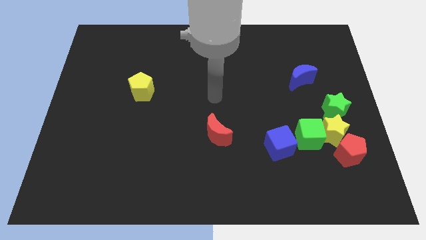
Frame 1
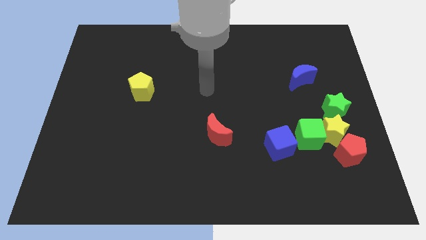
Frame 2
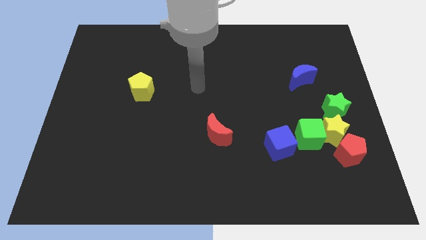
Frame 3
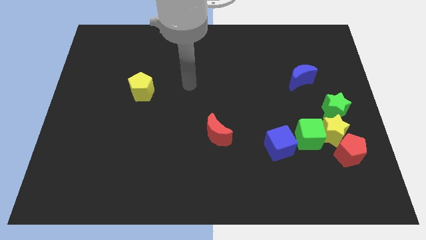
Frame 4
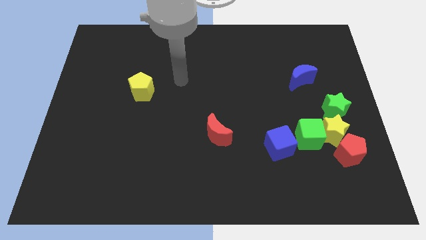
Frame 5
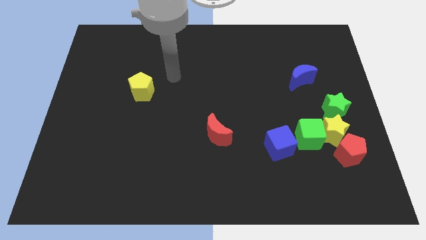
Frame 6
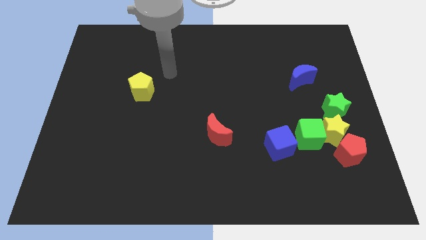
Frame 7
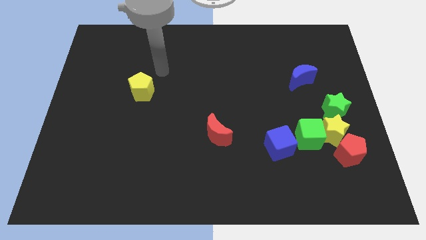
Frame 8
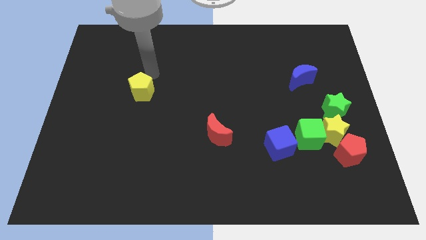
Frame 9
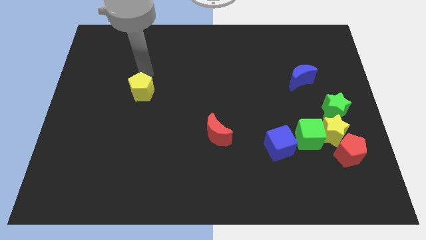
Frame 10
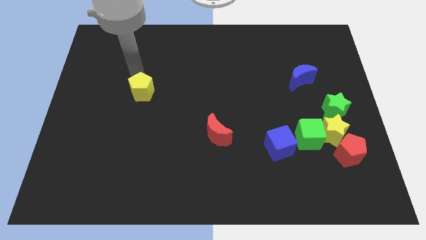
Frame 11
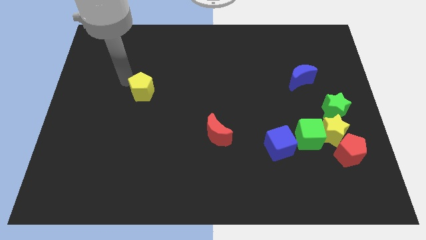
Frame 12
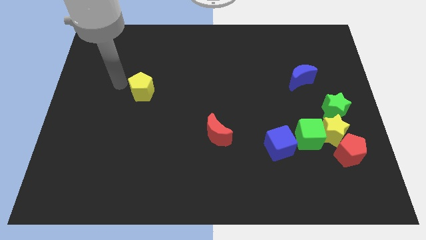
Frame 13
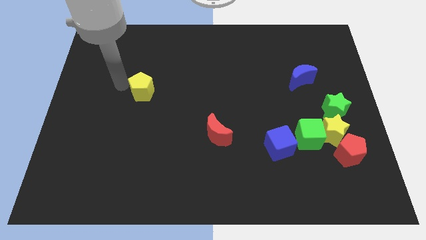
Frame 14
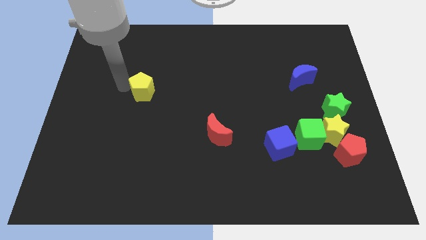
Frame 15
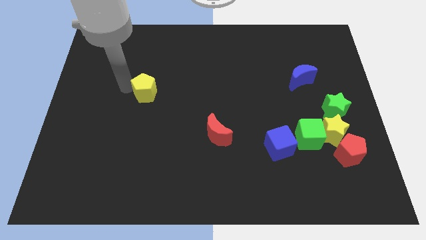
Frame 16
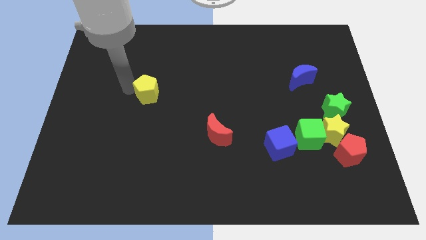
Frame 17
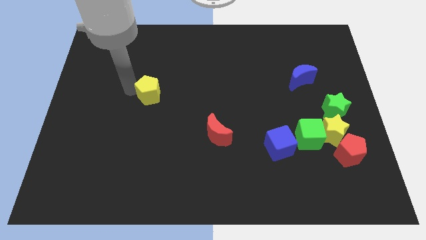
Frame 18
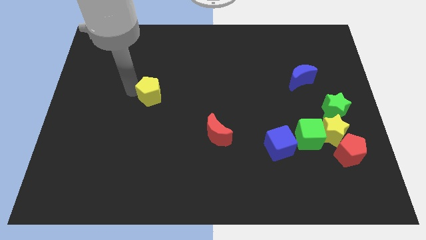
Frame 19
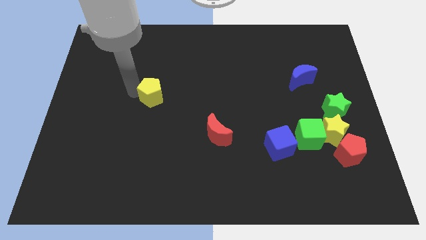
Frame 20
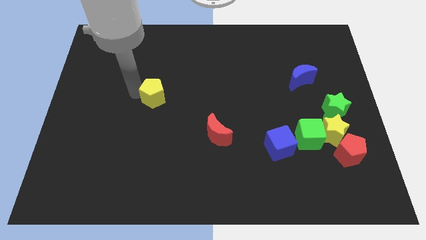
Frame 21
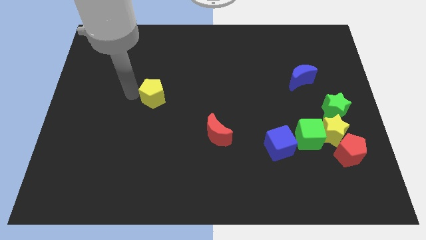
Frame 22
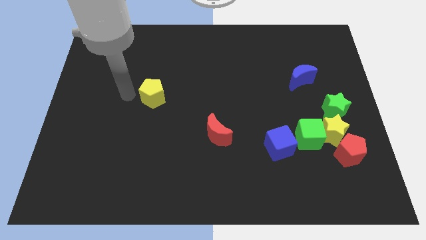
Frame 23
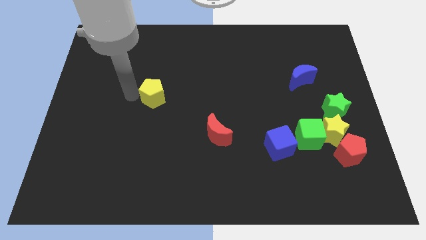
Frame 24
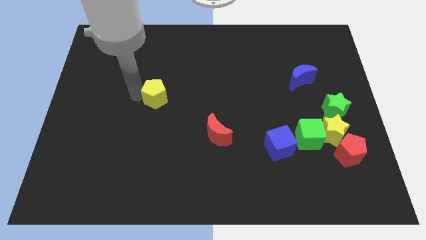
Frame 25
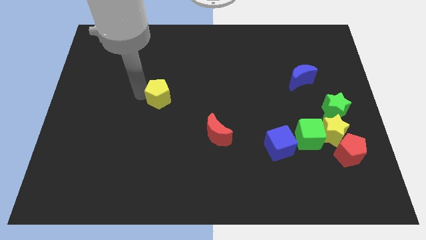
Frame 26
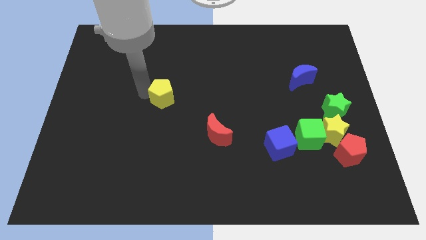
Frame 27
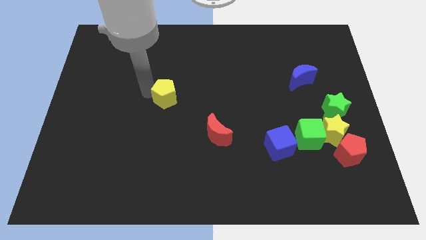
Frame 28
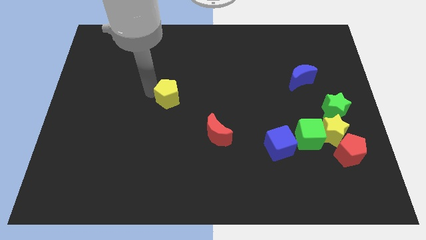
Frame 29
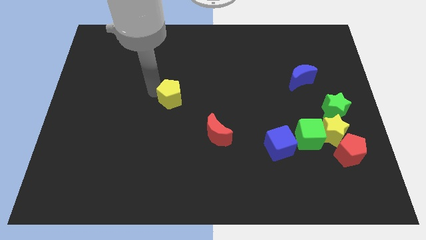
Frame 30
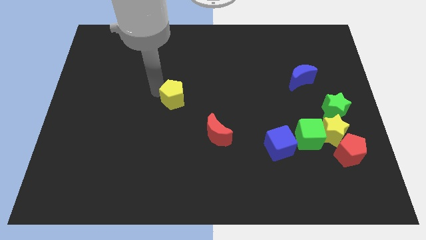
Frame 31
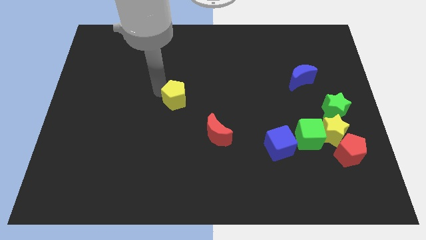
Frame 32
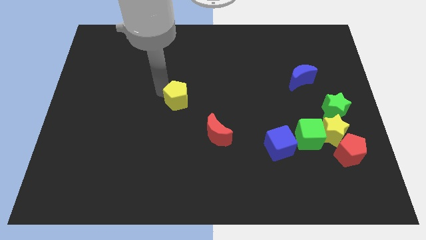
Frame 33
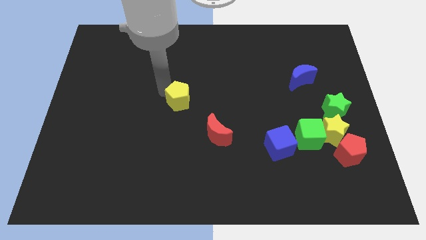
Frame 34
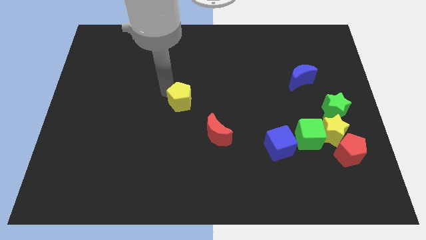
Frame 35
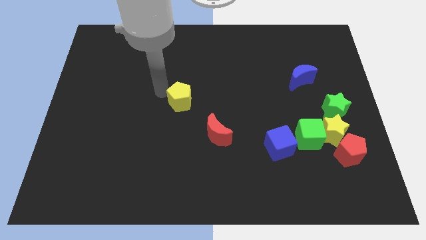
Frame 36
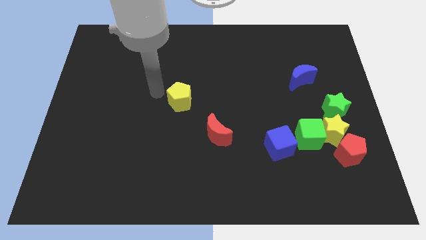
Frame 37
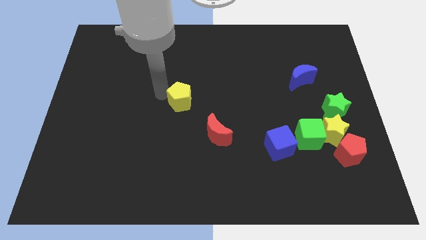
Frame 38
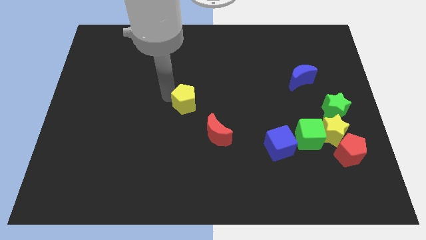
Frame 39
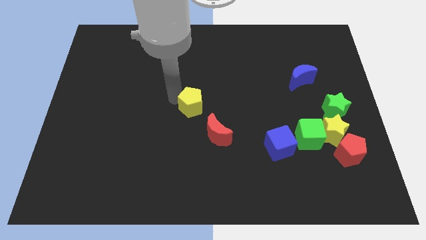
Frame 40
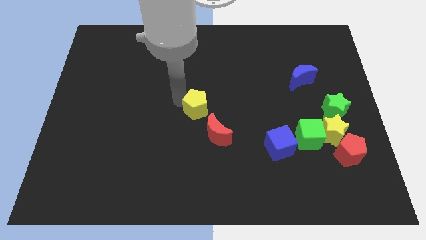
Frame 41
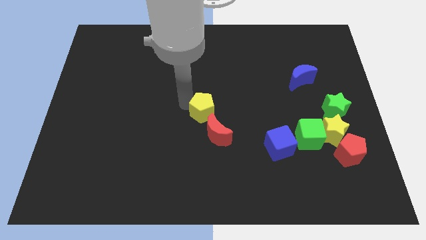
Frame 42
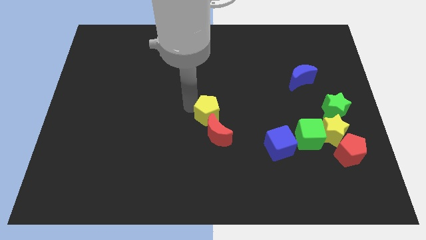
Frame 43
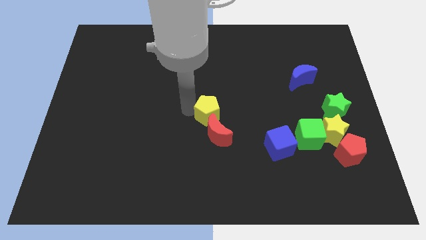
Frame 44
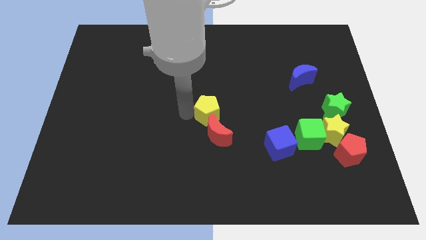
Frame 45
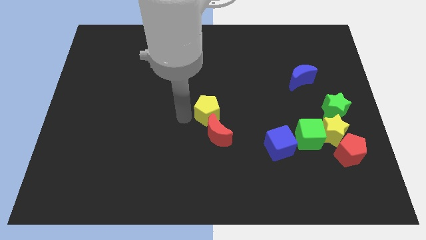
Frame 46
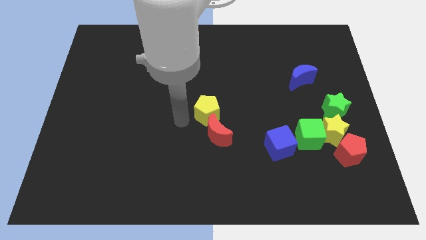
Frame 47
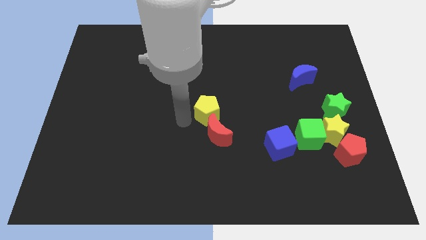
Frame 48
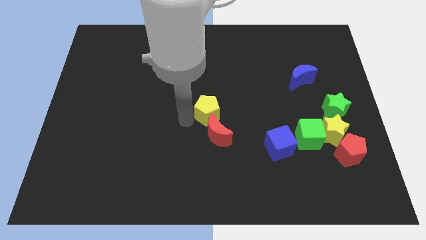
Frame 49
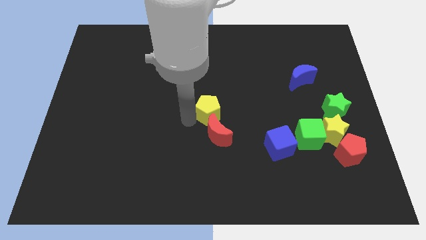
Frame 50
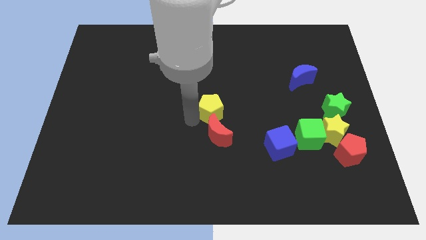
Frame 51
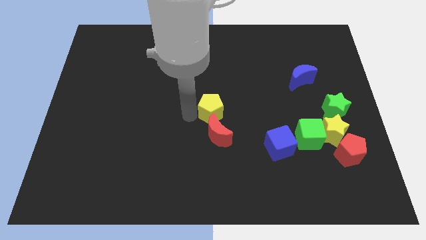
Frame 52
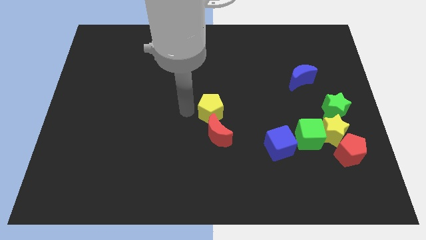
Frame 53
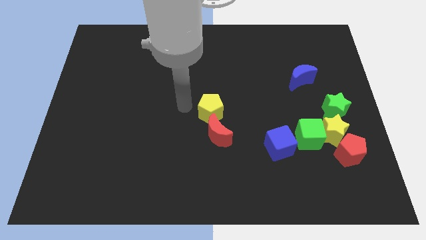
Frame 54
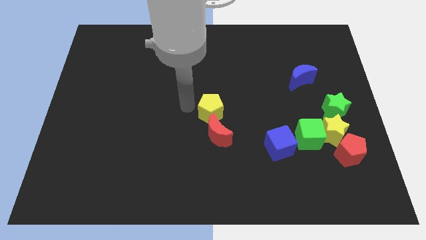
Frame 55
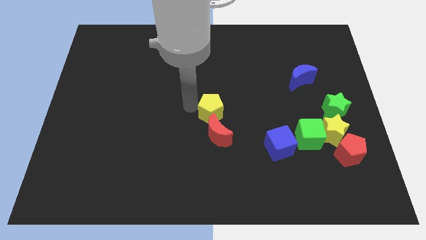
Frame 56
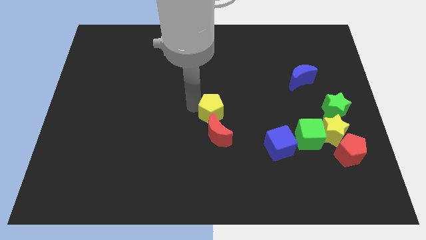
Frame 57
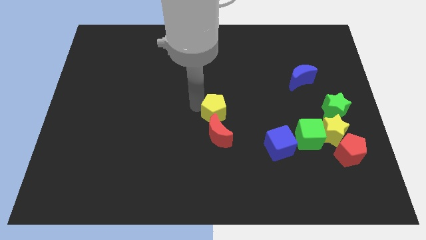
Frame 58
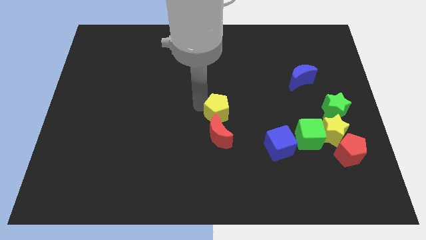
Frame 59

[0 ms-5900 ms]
put the yellow pentagon to the top right of the red moon

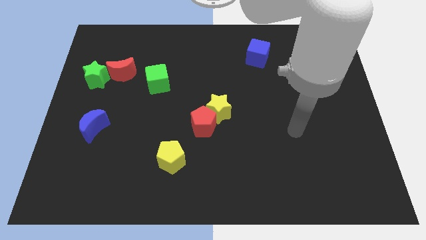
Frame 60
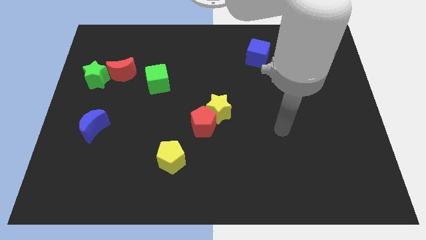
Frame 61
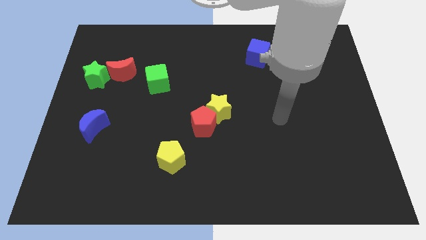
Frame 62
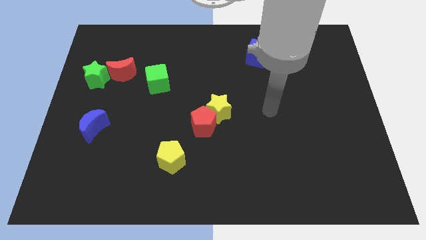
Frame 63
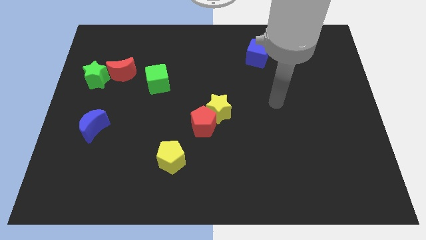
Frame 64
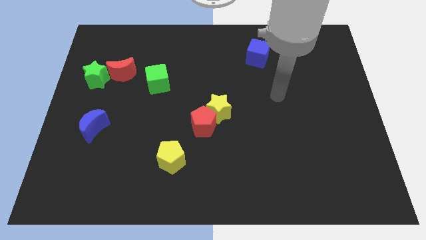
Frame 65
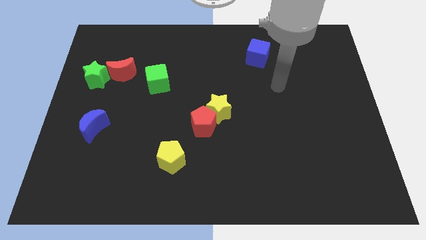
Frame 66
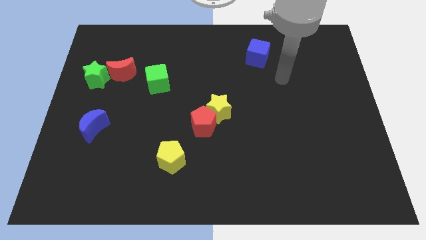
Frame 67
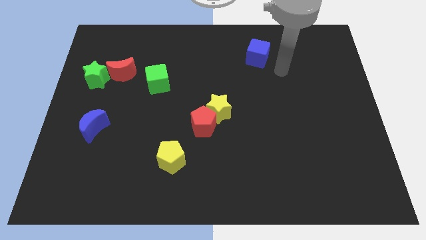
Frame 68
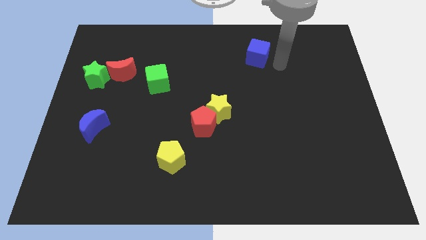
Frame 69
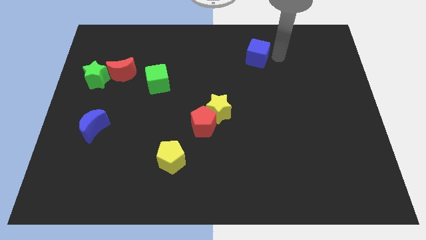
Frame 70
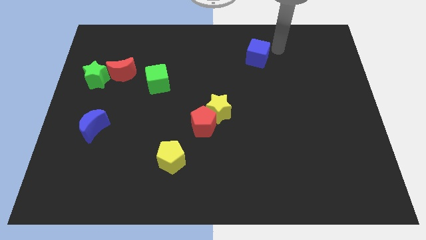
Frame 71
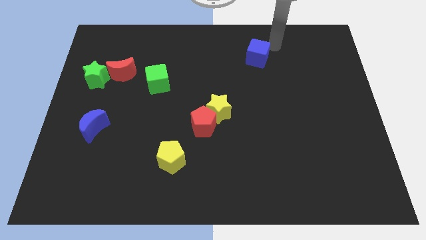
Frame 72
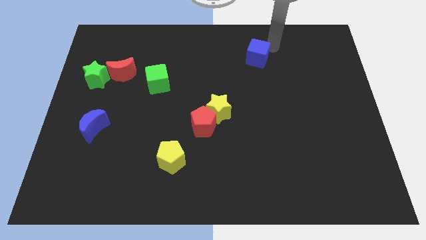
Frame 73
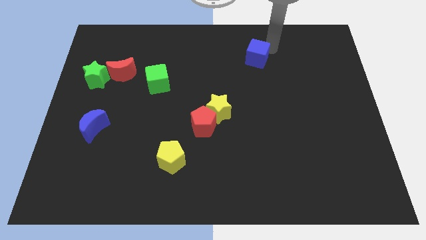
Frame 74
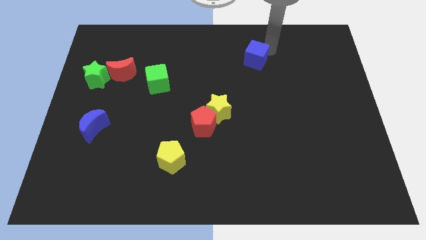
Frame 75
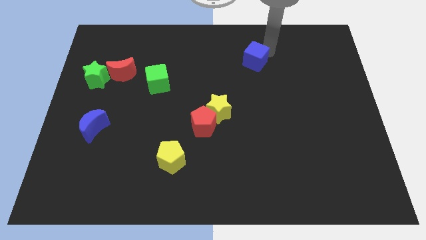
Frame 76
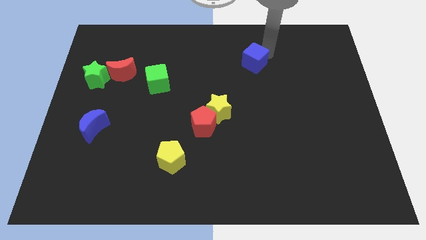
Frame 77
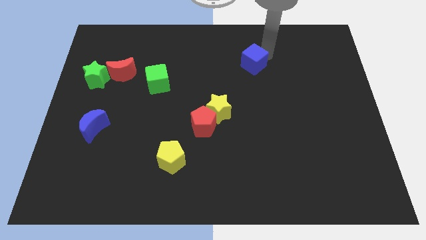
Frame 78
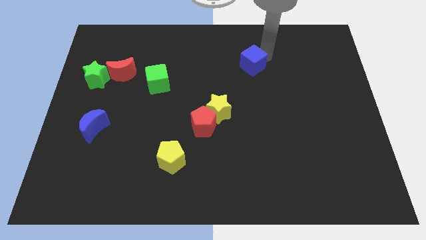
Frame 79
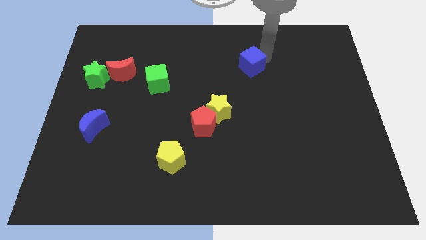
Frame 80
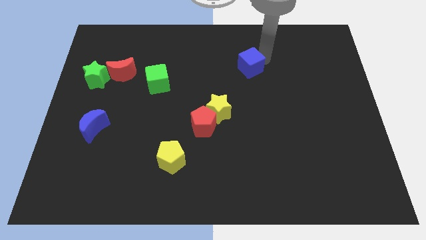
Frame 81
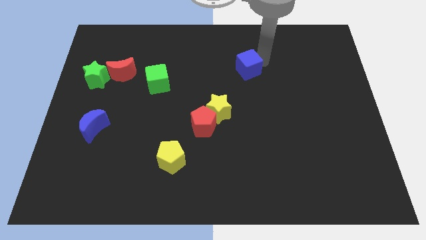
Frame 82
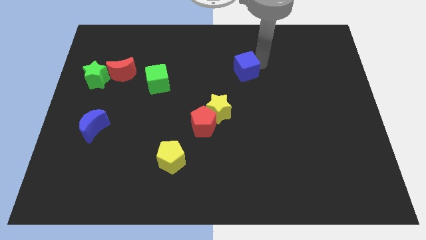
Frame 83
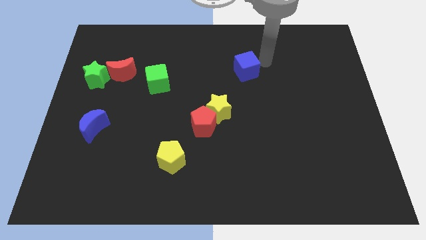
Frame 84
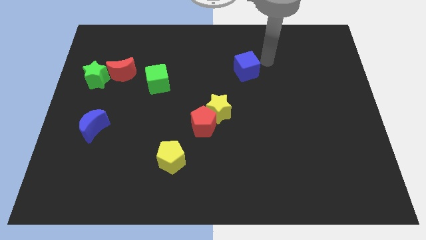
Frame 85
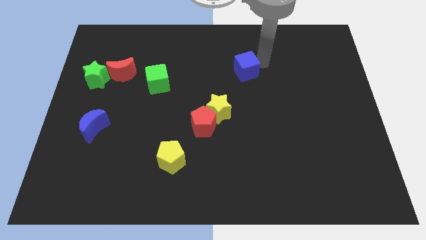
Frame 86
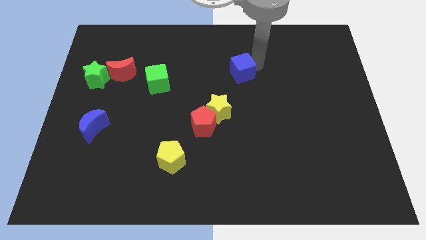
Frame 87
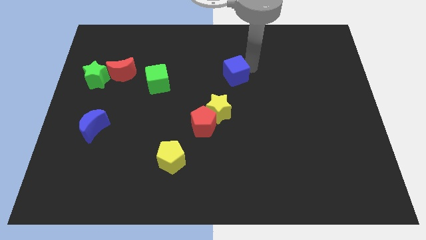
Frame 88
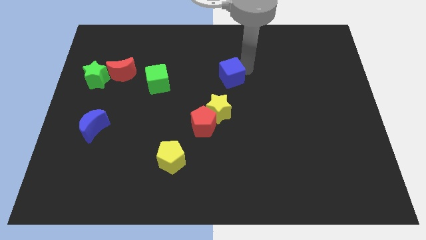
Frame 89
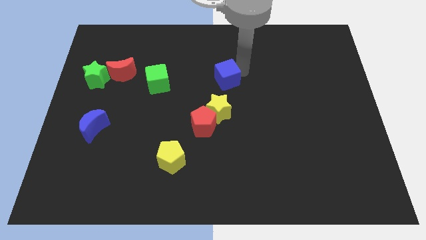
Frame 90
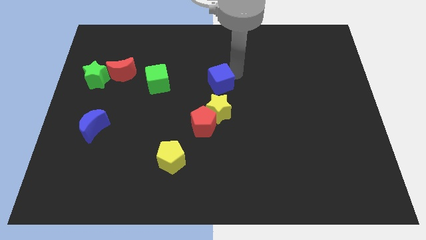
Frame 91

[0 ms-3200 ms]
slide the blue cube above the red pentagon
